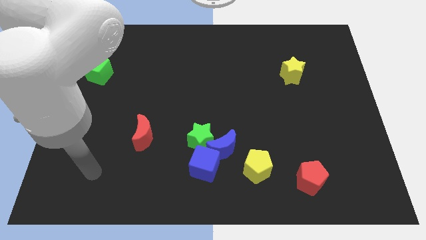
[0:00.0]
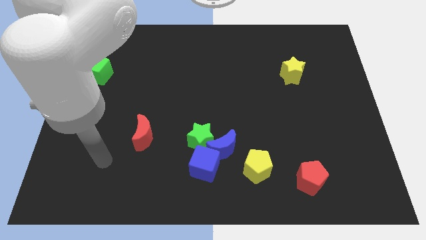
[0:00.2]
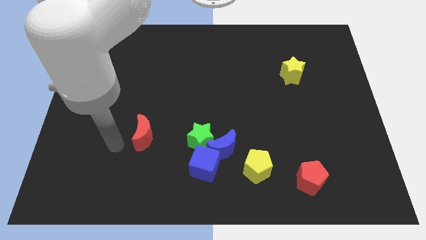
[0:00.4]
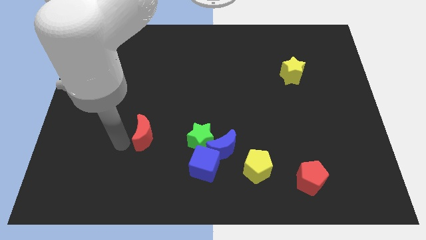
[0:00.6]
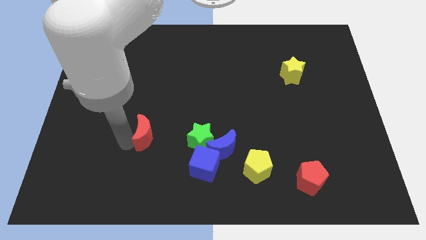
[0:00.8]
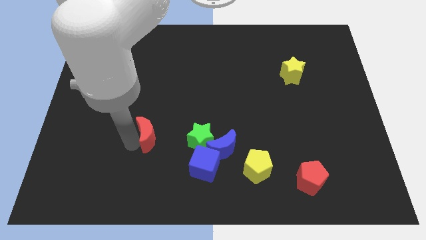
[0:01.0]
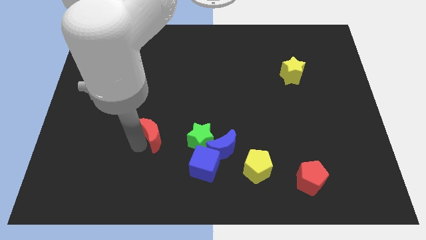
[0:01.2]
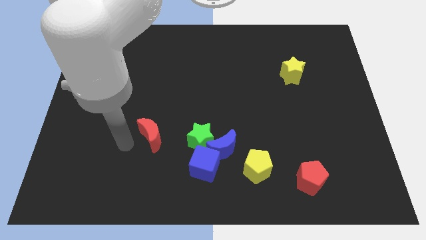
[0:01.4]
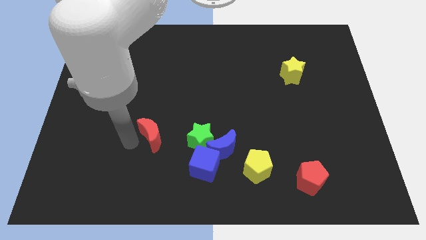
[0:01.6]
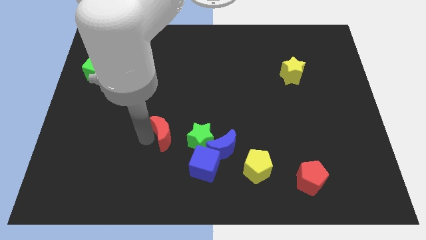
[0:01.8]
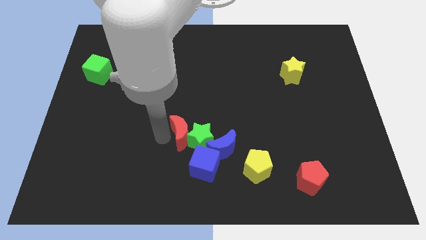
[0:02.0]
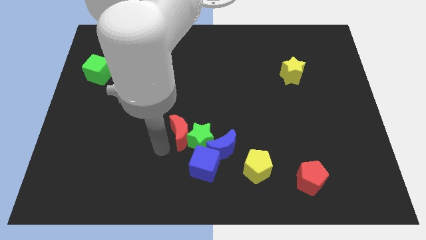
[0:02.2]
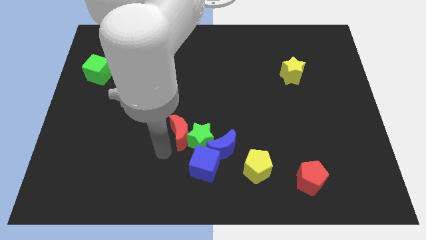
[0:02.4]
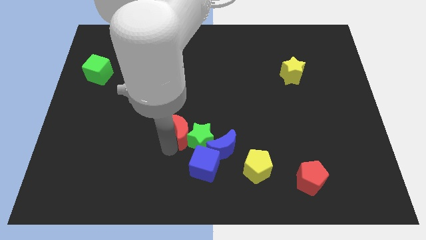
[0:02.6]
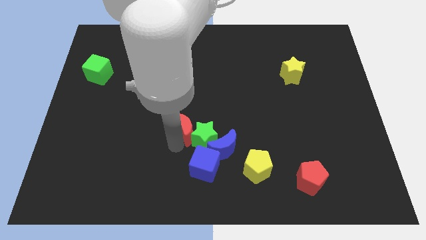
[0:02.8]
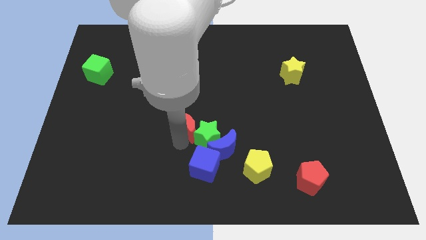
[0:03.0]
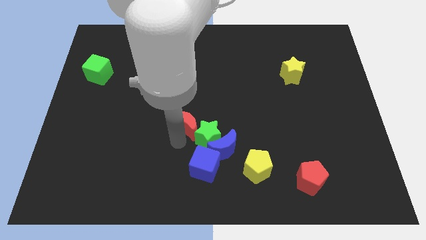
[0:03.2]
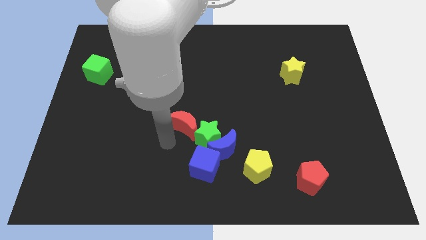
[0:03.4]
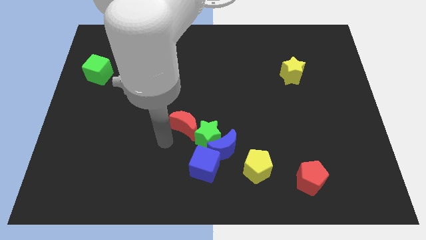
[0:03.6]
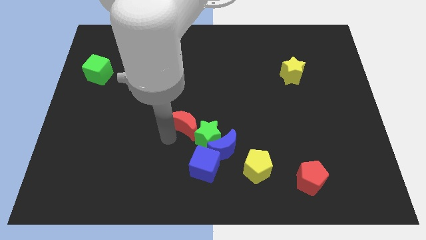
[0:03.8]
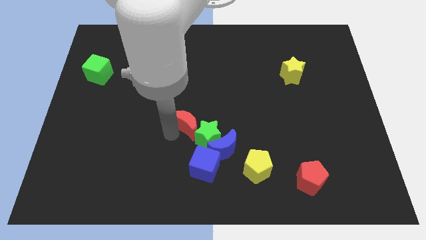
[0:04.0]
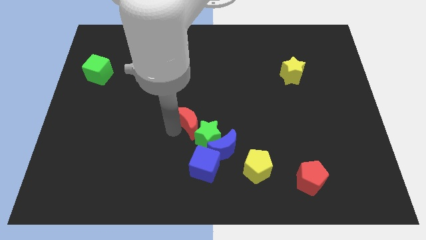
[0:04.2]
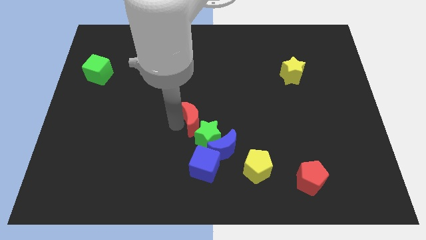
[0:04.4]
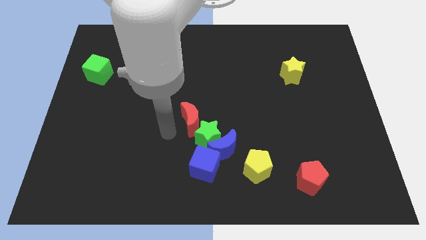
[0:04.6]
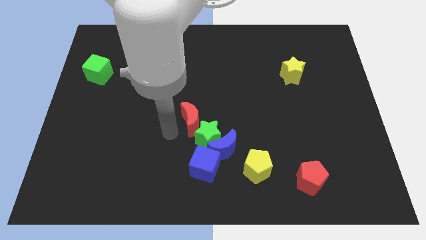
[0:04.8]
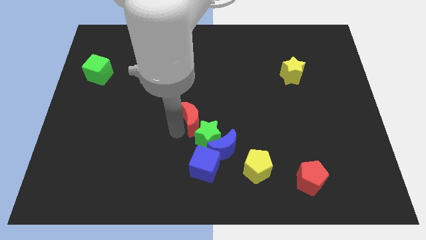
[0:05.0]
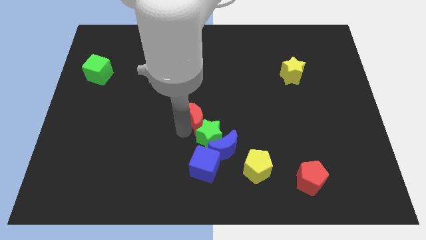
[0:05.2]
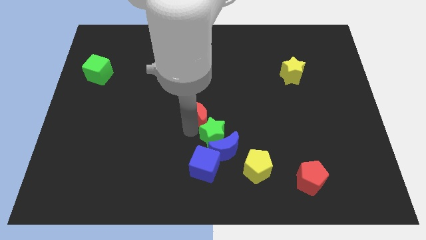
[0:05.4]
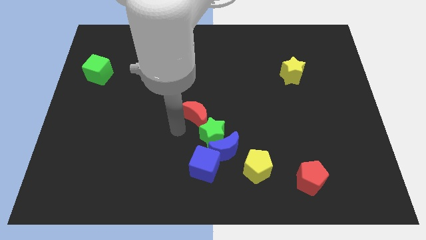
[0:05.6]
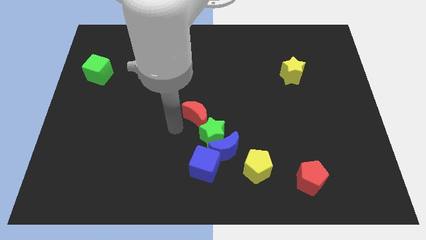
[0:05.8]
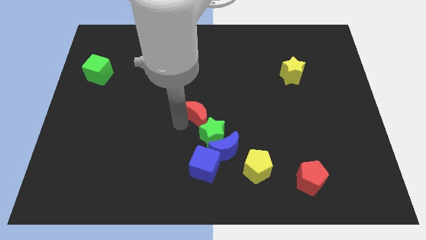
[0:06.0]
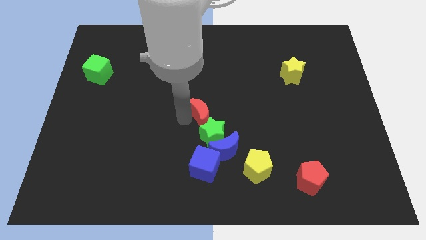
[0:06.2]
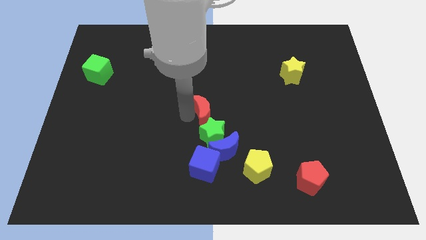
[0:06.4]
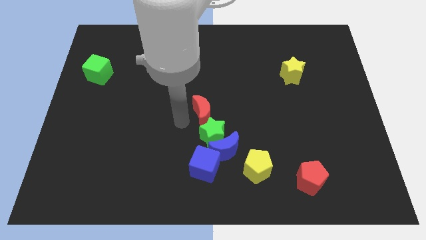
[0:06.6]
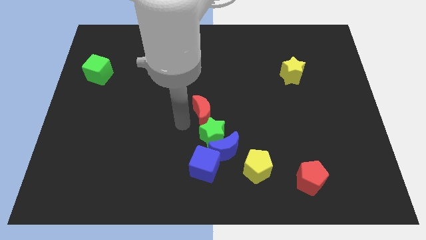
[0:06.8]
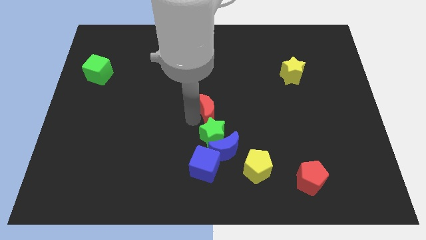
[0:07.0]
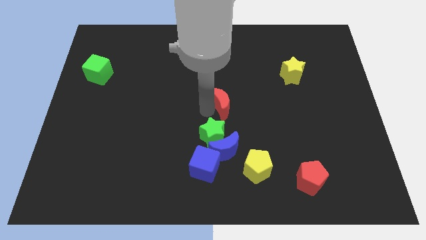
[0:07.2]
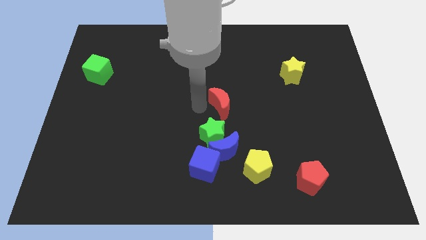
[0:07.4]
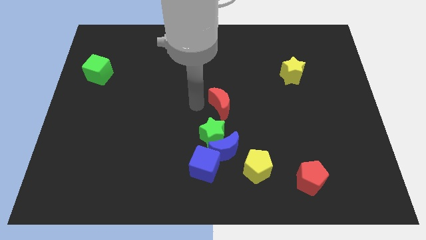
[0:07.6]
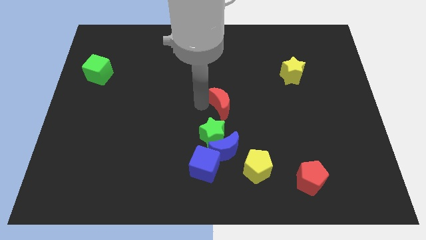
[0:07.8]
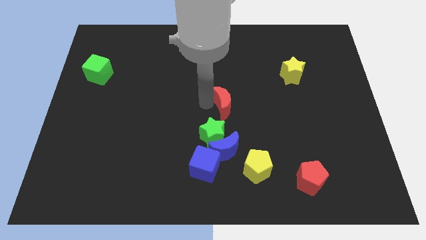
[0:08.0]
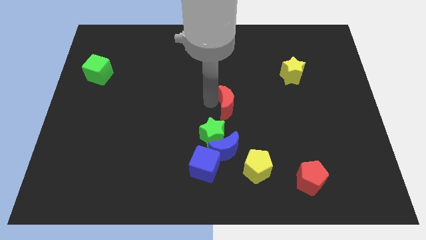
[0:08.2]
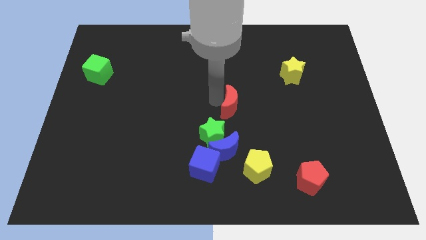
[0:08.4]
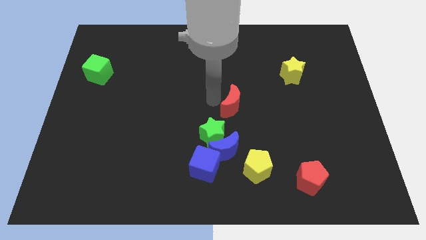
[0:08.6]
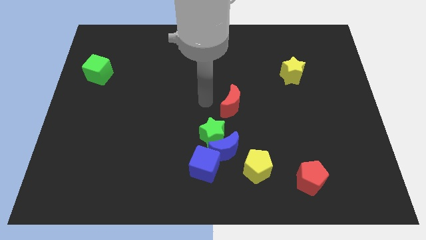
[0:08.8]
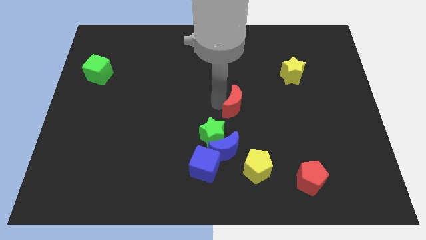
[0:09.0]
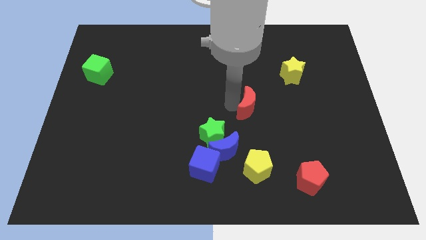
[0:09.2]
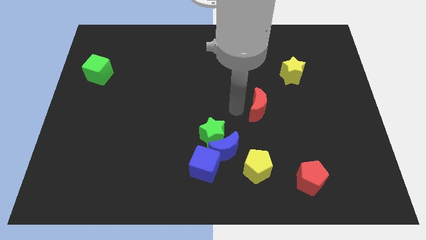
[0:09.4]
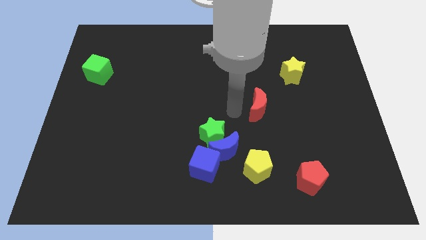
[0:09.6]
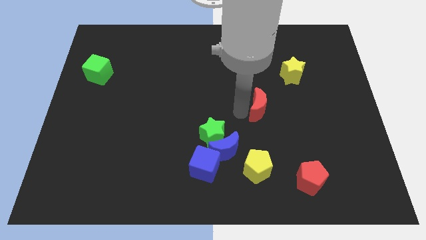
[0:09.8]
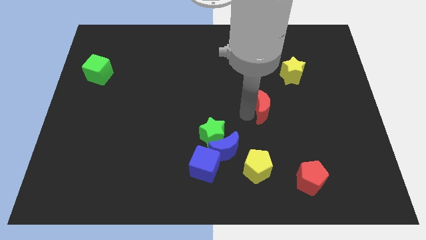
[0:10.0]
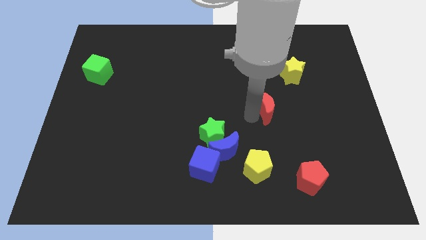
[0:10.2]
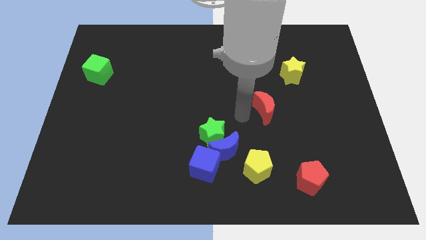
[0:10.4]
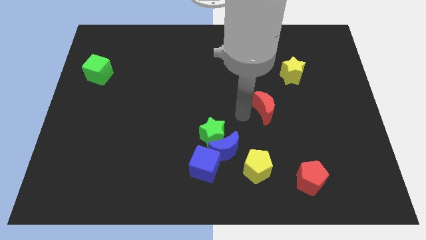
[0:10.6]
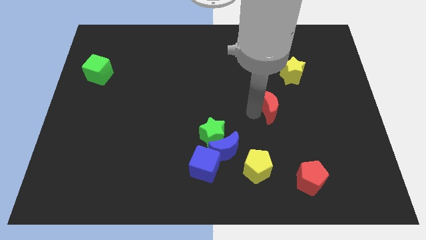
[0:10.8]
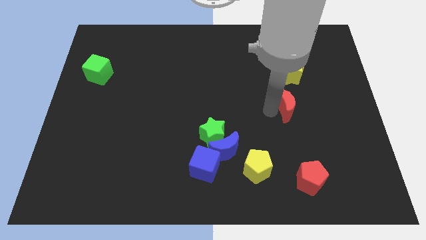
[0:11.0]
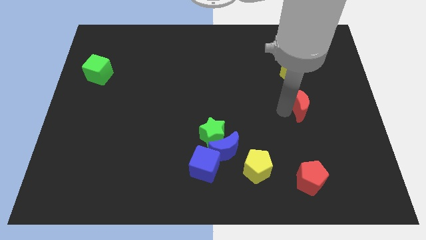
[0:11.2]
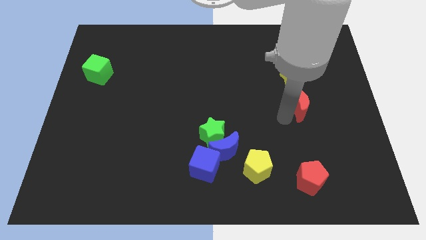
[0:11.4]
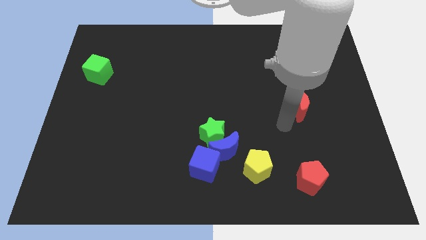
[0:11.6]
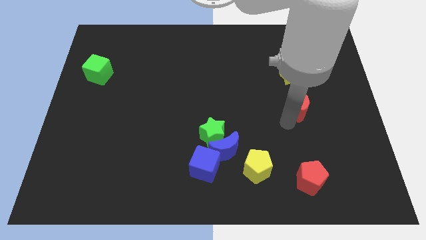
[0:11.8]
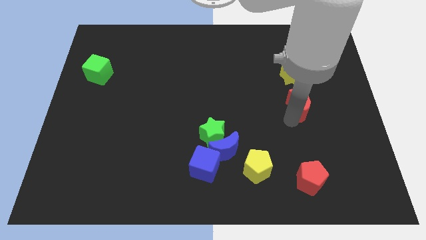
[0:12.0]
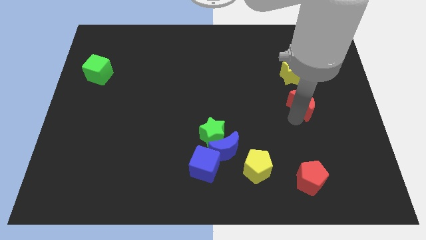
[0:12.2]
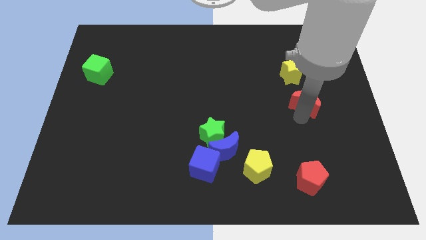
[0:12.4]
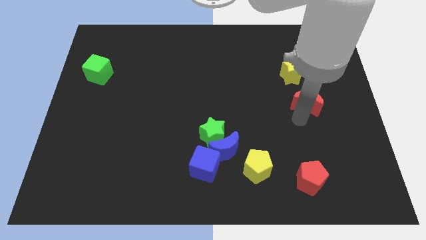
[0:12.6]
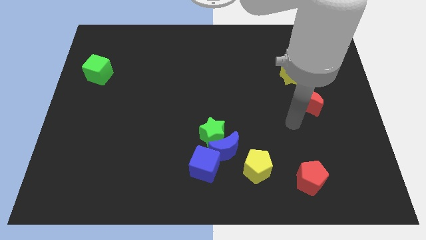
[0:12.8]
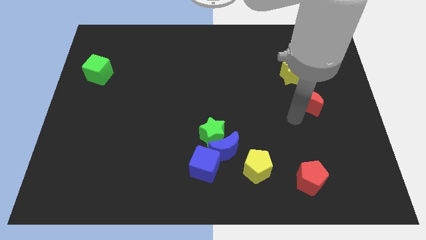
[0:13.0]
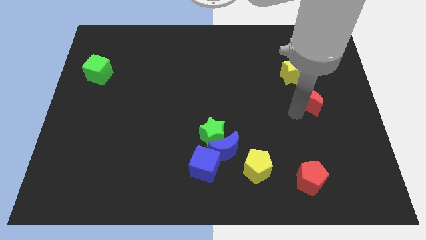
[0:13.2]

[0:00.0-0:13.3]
push the red moon to the bottom right of the yellow star

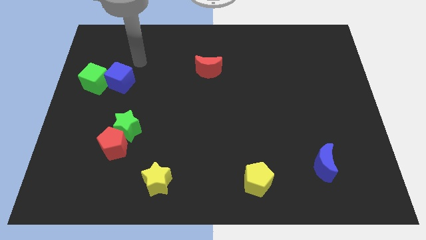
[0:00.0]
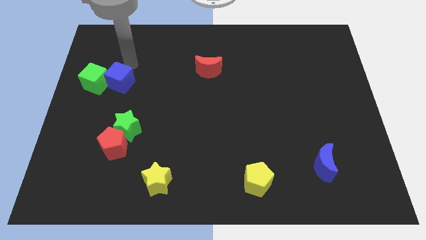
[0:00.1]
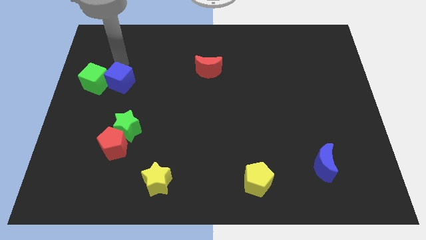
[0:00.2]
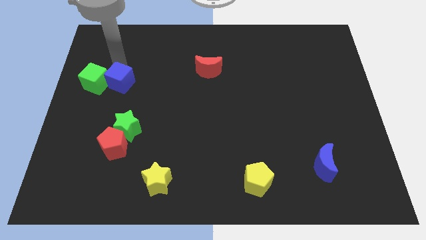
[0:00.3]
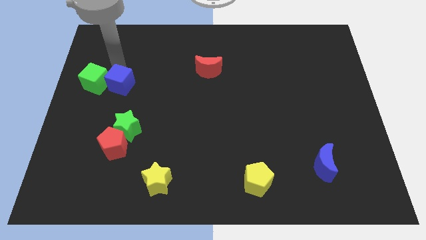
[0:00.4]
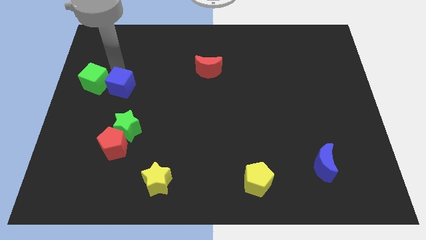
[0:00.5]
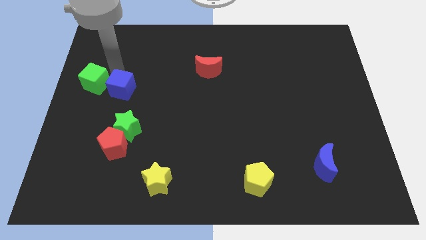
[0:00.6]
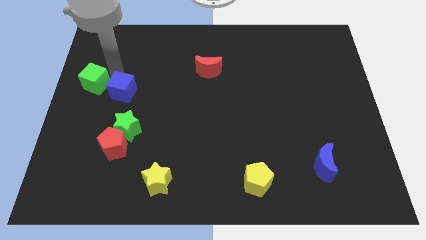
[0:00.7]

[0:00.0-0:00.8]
put the blue cube above the red pentagon

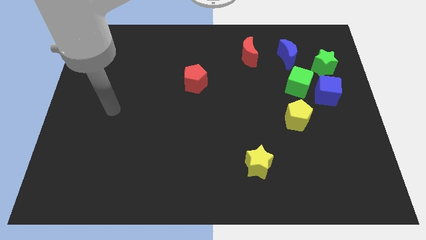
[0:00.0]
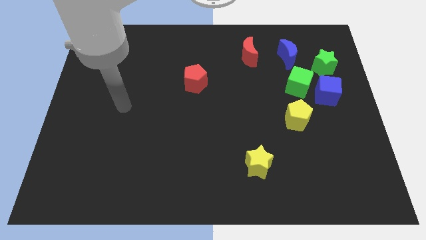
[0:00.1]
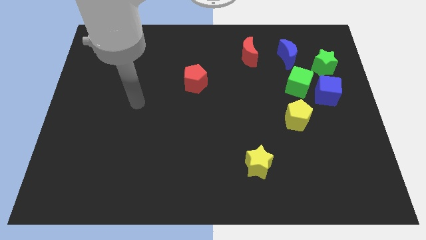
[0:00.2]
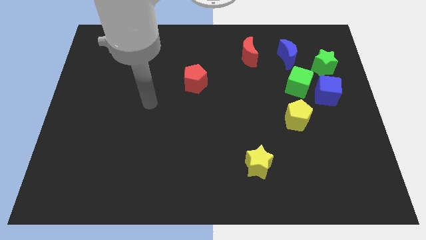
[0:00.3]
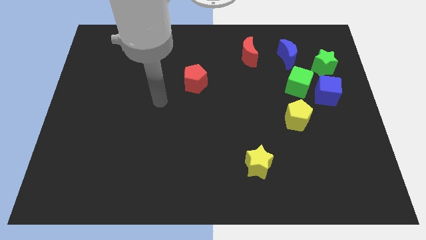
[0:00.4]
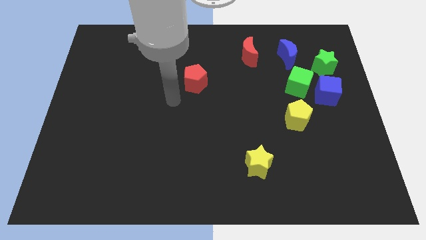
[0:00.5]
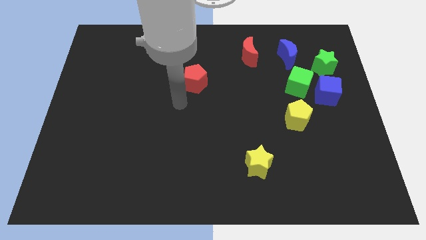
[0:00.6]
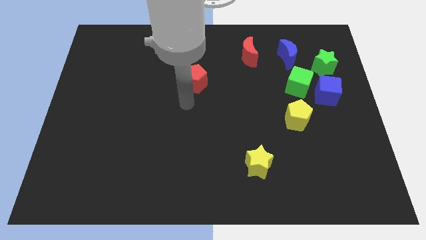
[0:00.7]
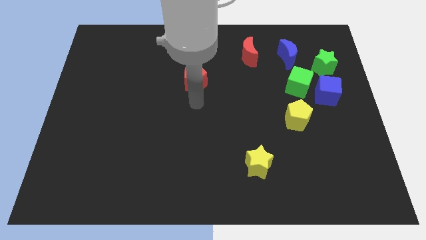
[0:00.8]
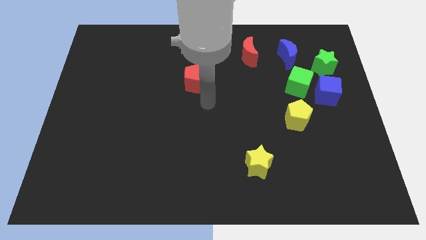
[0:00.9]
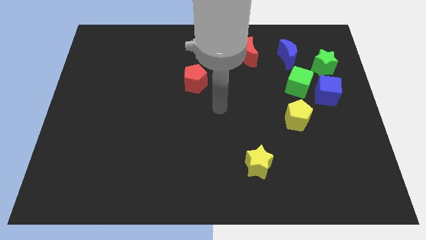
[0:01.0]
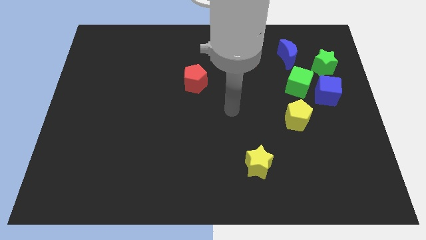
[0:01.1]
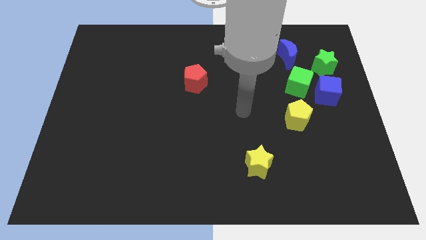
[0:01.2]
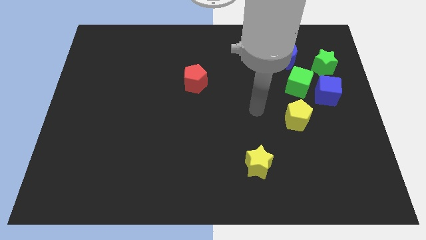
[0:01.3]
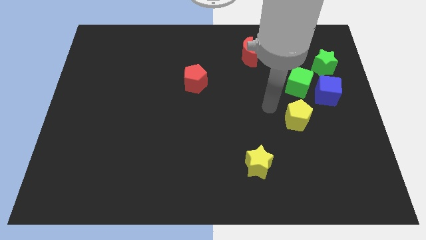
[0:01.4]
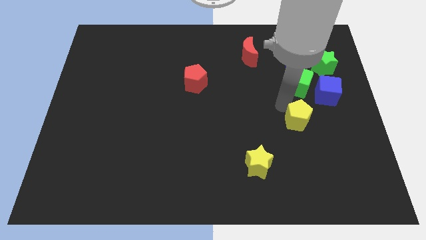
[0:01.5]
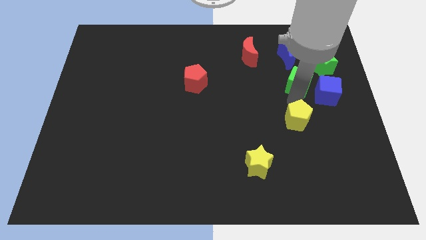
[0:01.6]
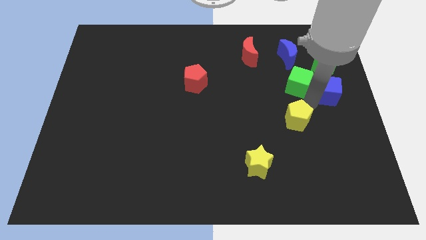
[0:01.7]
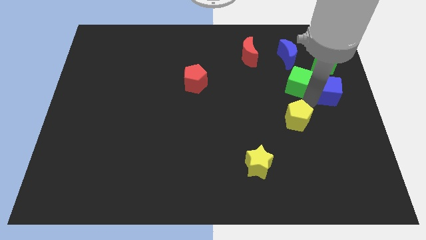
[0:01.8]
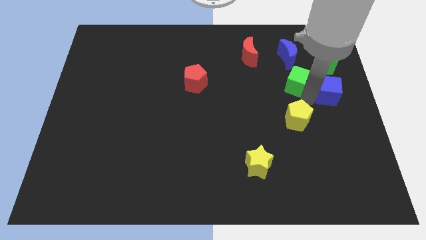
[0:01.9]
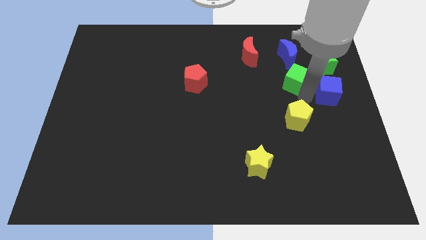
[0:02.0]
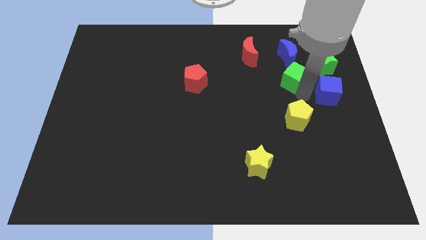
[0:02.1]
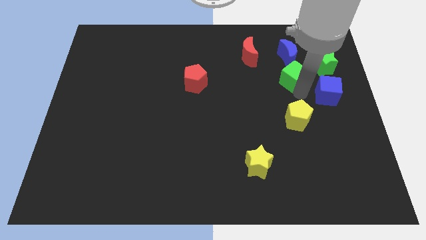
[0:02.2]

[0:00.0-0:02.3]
slide the green cube to the left of the green star
